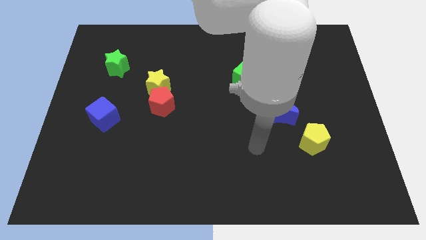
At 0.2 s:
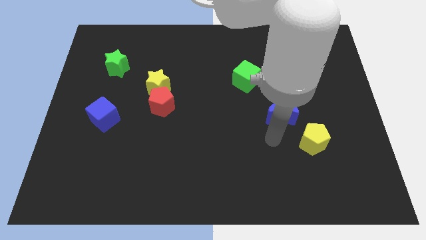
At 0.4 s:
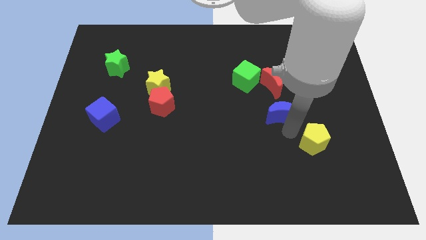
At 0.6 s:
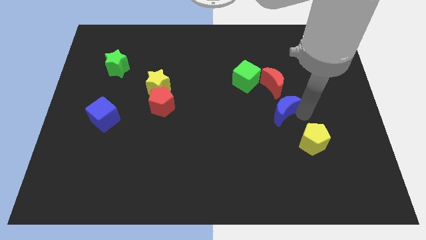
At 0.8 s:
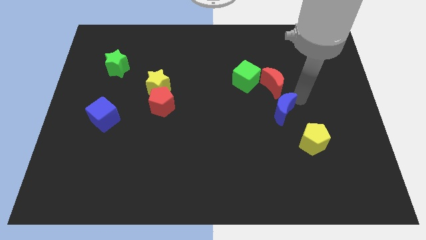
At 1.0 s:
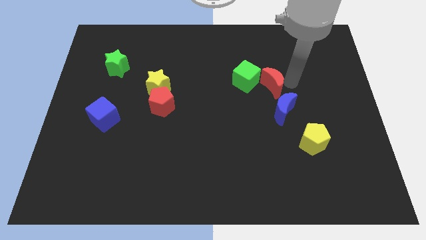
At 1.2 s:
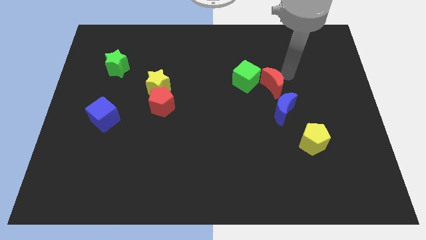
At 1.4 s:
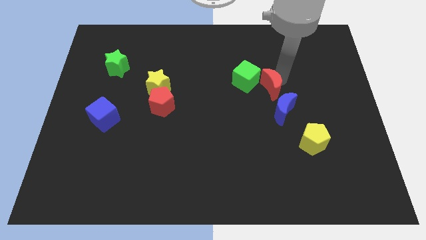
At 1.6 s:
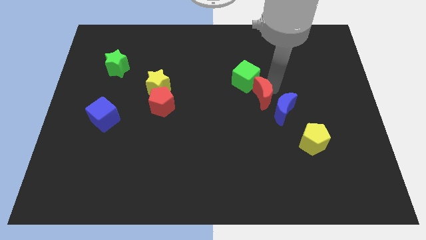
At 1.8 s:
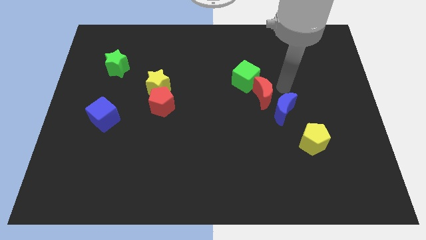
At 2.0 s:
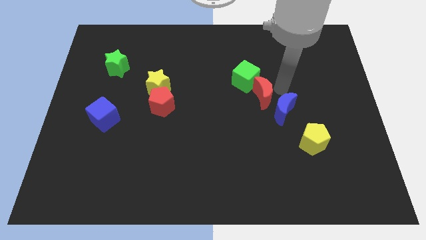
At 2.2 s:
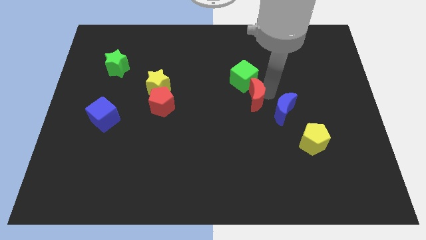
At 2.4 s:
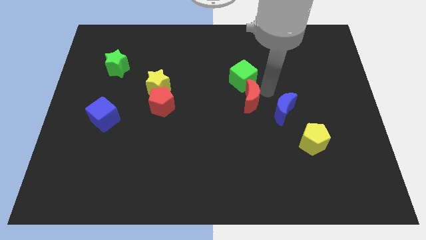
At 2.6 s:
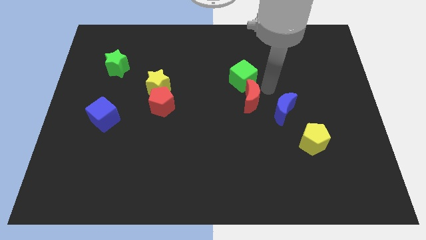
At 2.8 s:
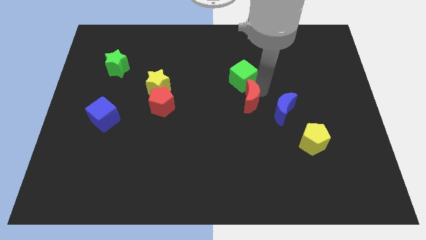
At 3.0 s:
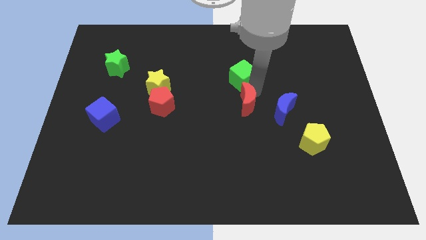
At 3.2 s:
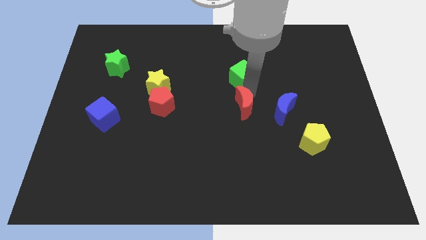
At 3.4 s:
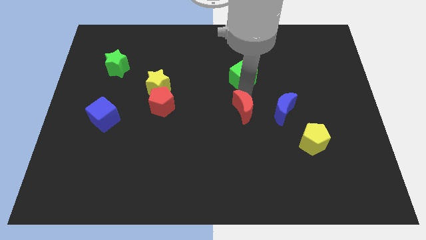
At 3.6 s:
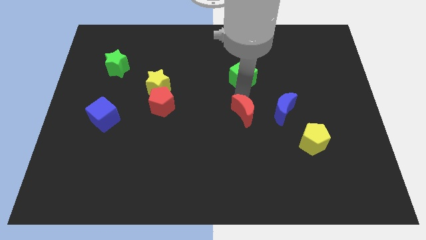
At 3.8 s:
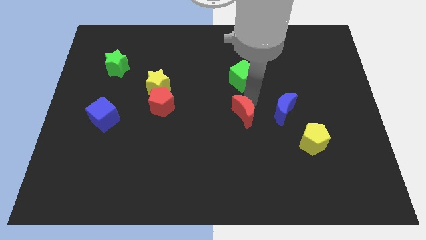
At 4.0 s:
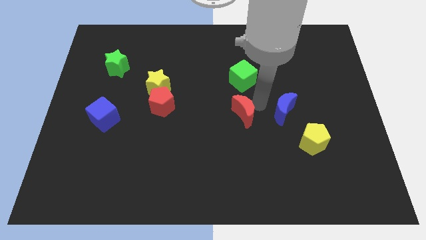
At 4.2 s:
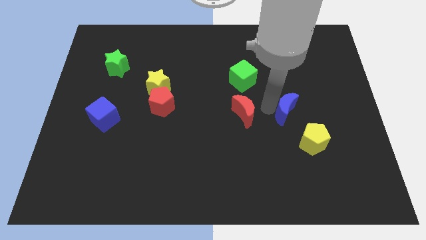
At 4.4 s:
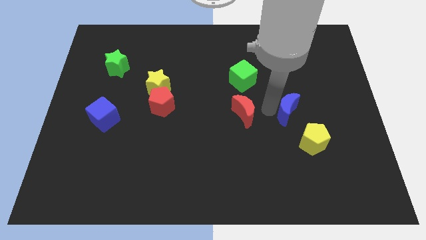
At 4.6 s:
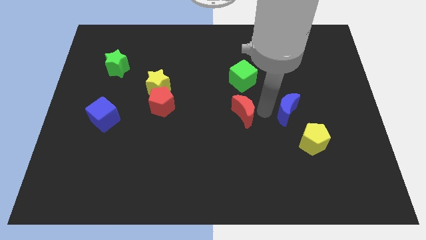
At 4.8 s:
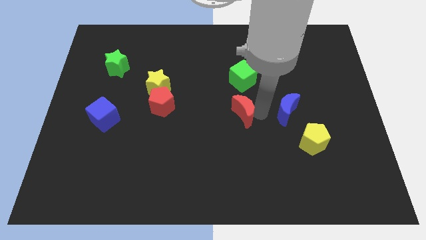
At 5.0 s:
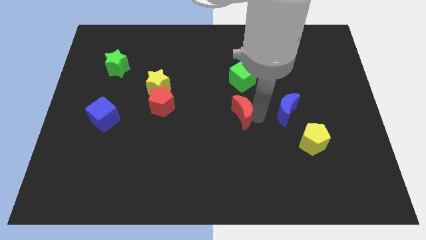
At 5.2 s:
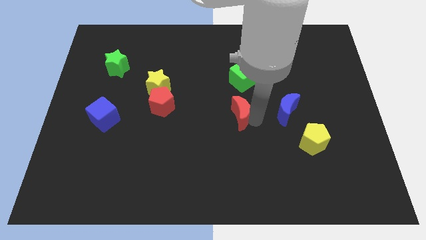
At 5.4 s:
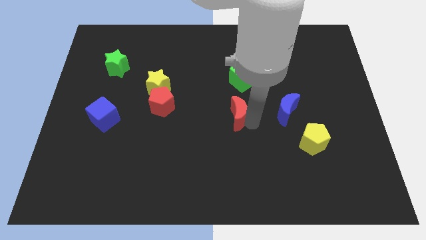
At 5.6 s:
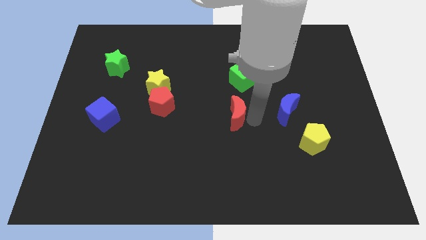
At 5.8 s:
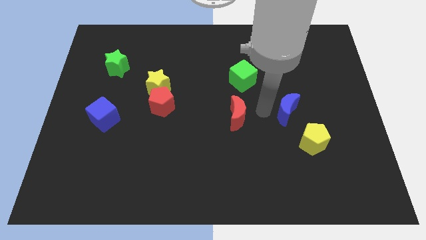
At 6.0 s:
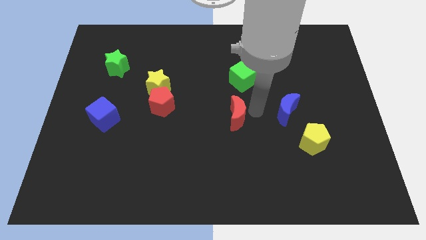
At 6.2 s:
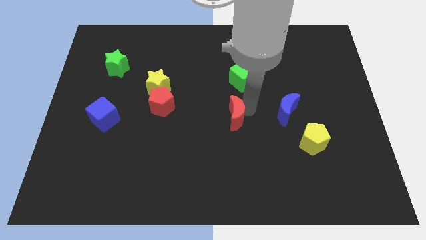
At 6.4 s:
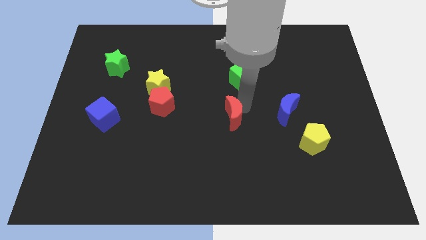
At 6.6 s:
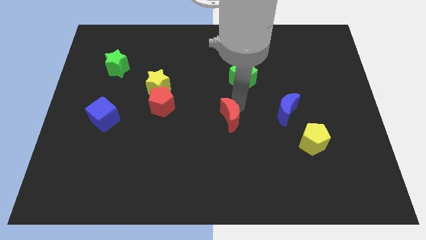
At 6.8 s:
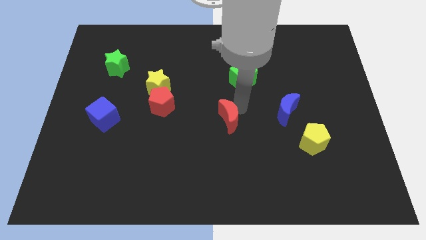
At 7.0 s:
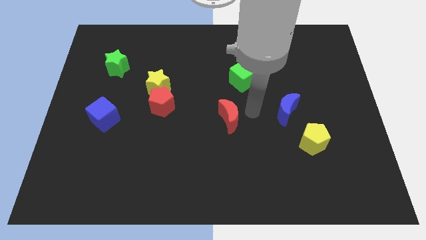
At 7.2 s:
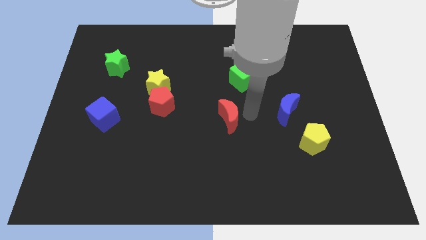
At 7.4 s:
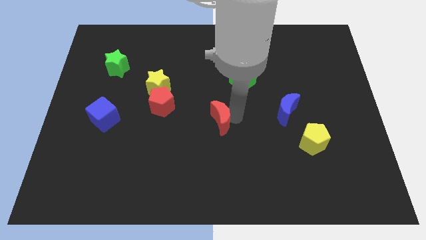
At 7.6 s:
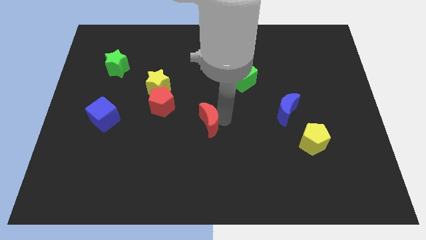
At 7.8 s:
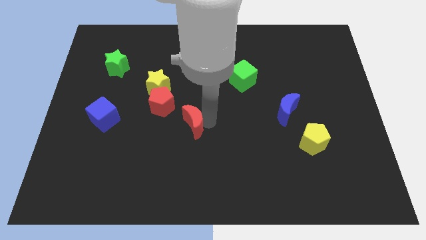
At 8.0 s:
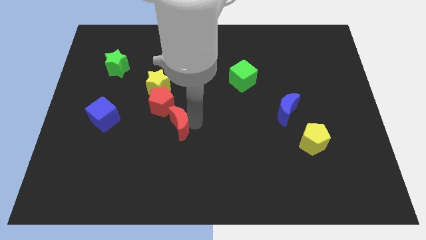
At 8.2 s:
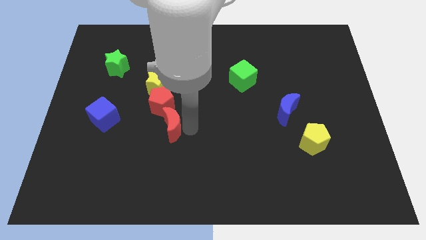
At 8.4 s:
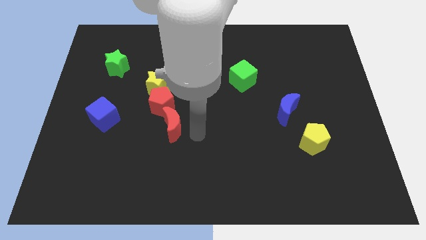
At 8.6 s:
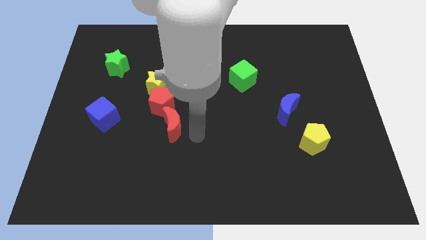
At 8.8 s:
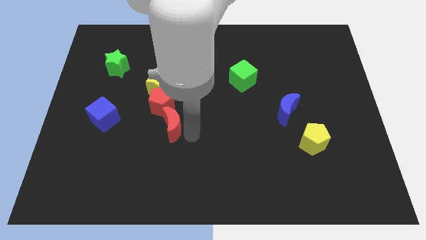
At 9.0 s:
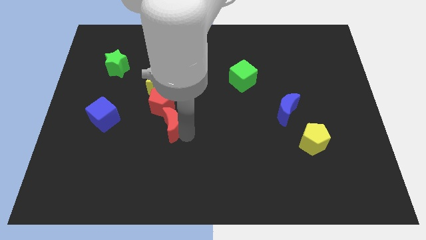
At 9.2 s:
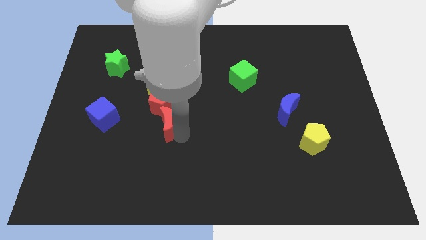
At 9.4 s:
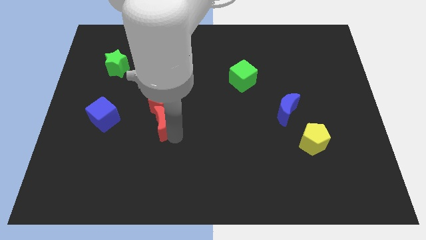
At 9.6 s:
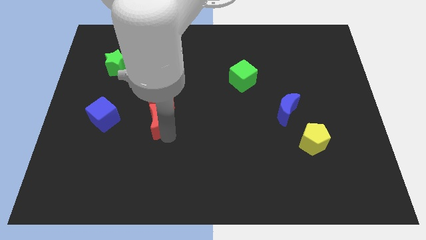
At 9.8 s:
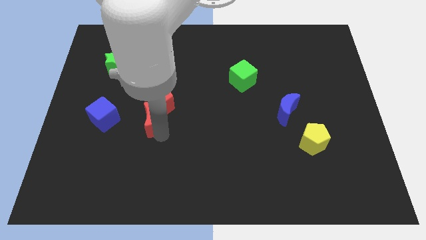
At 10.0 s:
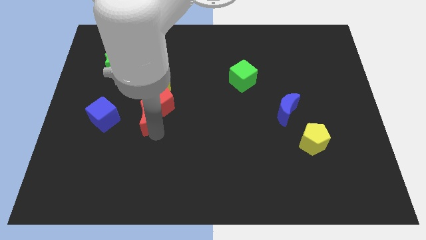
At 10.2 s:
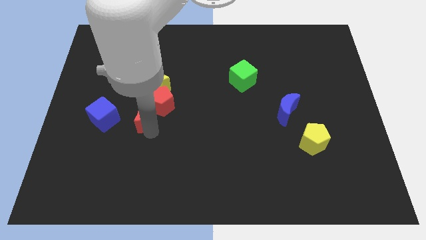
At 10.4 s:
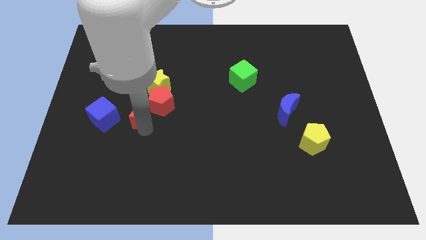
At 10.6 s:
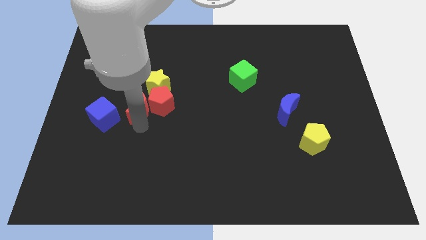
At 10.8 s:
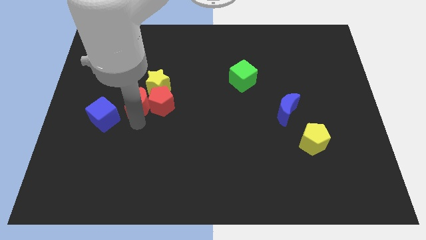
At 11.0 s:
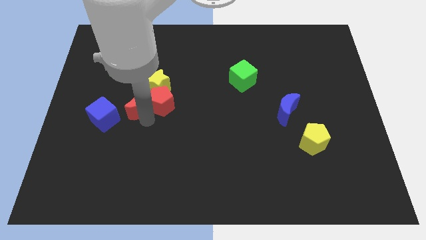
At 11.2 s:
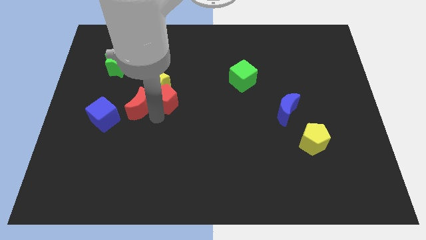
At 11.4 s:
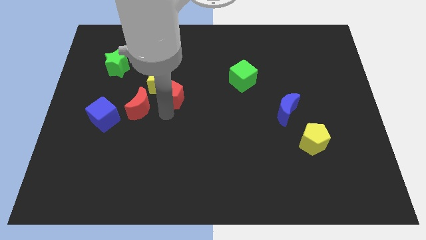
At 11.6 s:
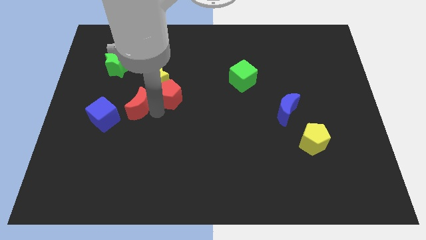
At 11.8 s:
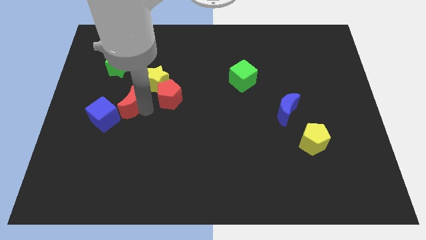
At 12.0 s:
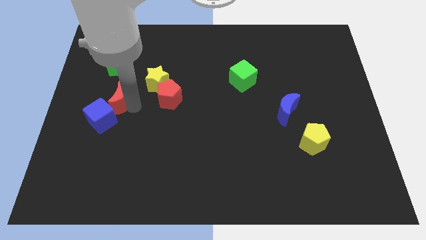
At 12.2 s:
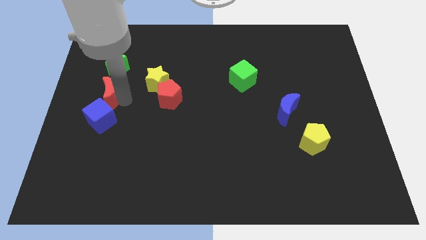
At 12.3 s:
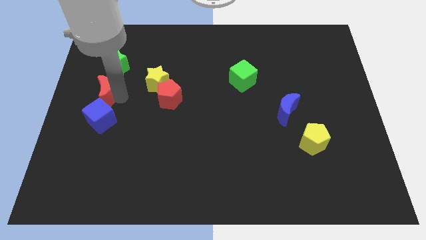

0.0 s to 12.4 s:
move the red moon to the left side of the board
